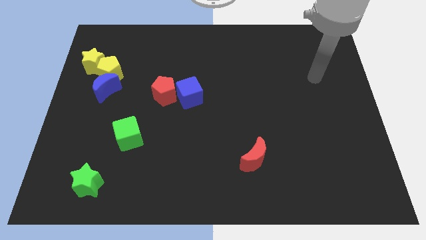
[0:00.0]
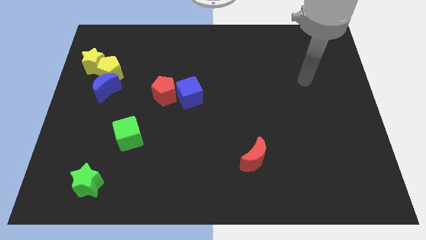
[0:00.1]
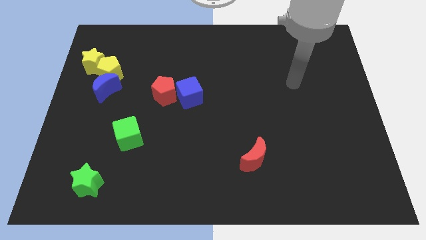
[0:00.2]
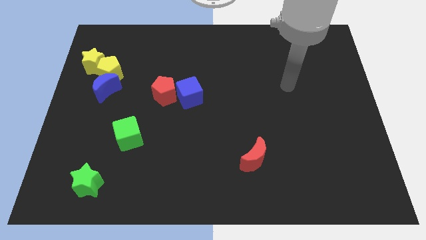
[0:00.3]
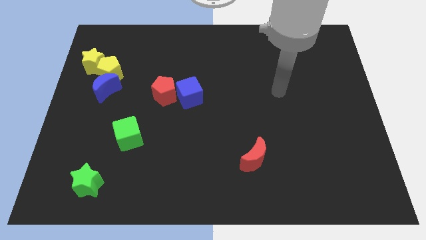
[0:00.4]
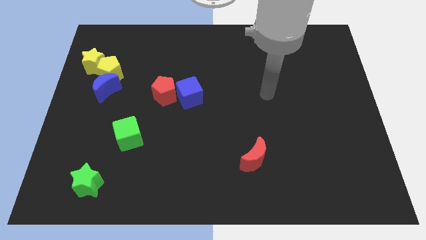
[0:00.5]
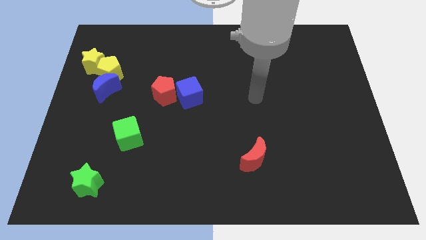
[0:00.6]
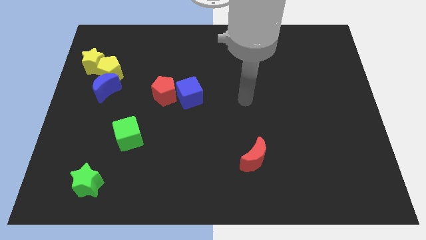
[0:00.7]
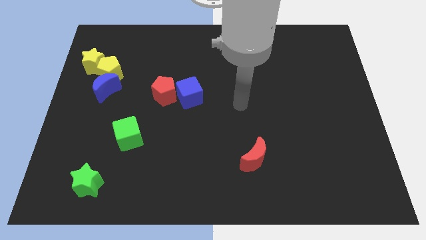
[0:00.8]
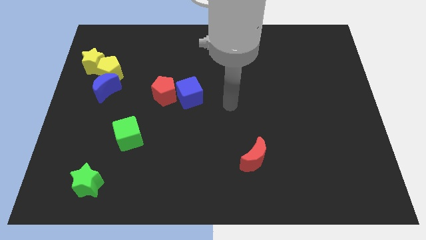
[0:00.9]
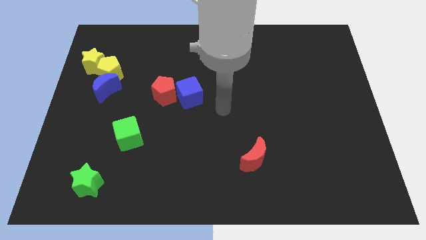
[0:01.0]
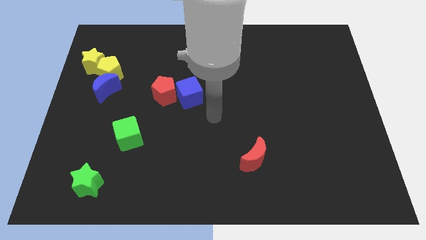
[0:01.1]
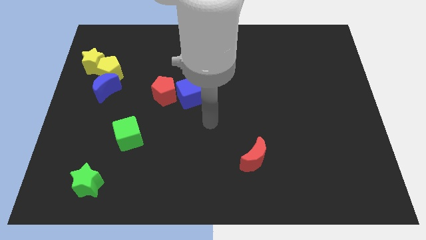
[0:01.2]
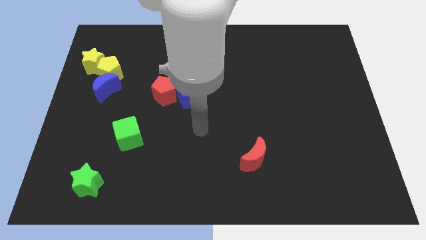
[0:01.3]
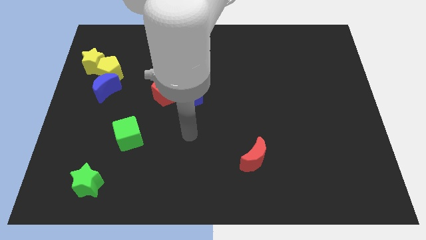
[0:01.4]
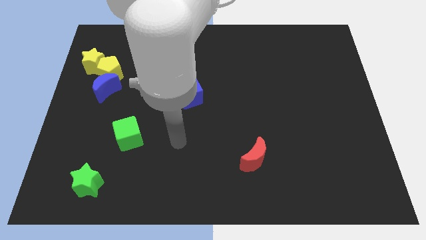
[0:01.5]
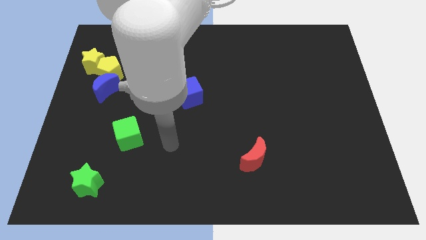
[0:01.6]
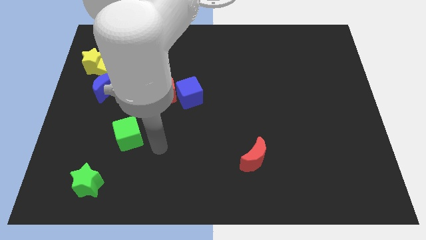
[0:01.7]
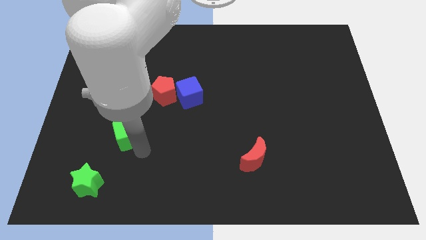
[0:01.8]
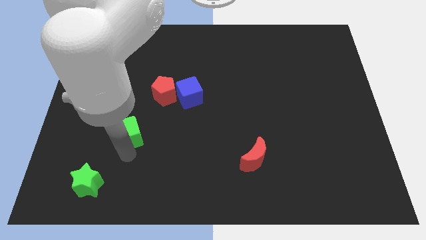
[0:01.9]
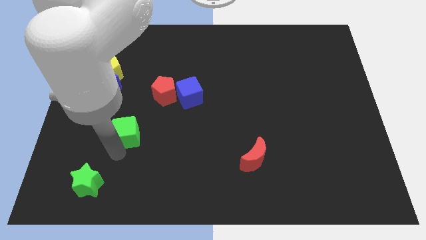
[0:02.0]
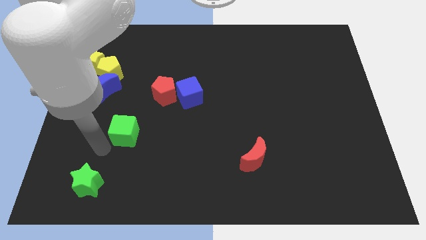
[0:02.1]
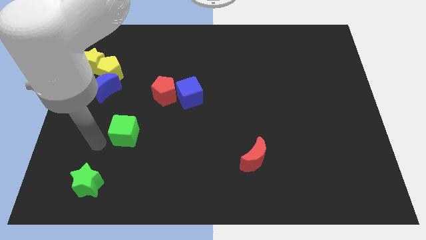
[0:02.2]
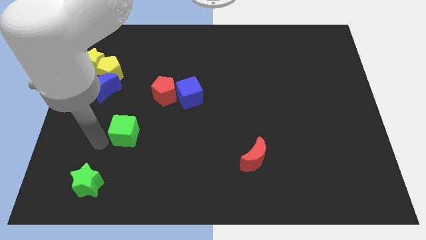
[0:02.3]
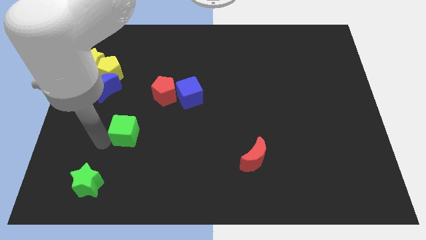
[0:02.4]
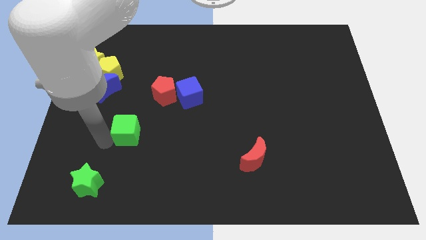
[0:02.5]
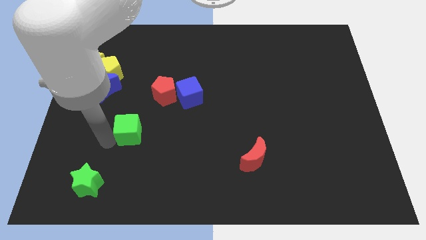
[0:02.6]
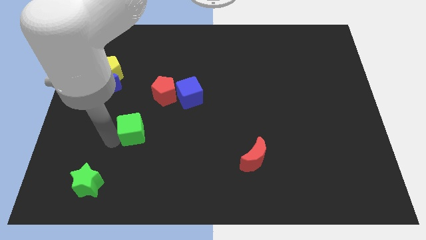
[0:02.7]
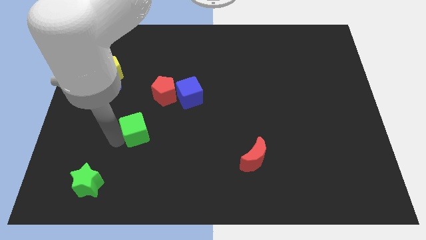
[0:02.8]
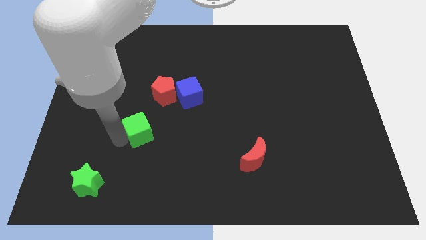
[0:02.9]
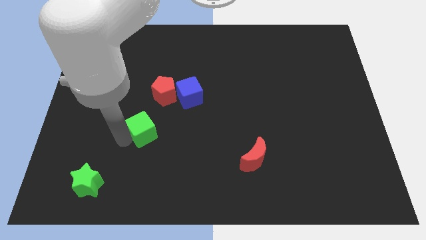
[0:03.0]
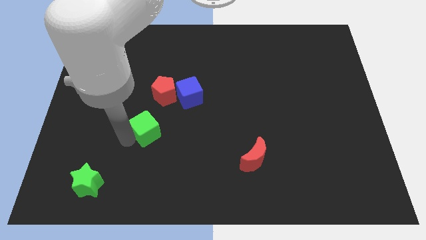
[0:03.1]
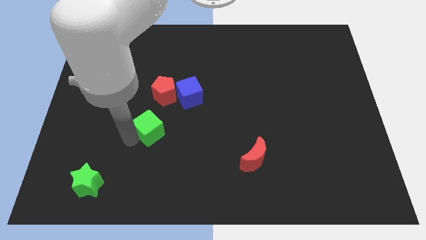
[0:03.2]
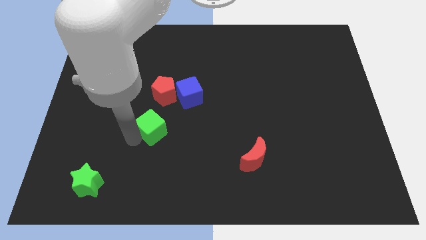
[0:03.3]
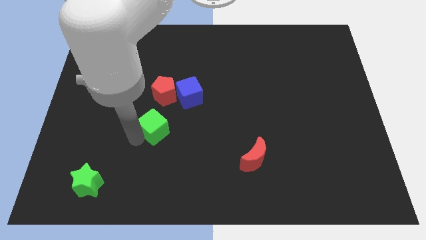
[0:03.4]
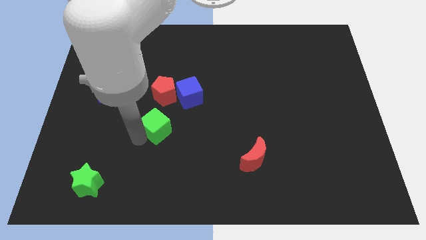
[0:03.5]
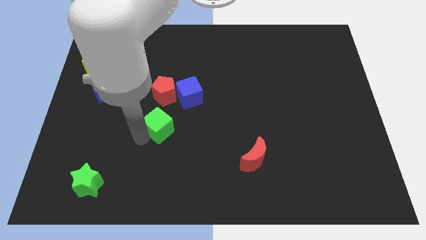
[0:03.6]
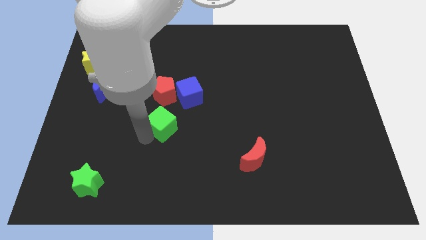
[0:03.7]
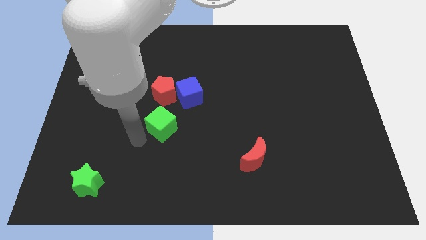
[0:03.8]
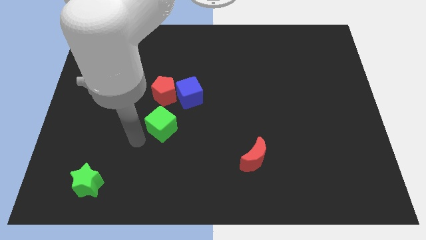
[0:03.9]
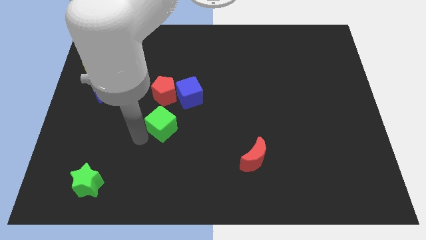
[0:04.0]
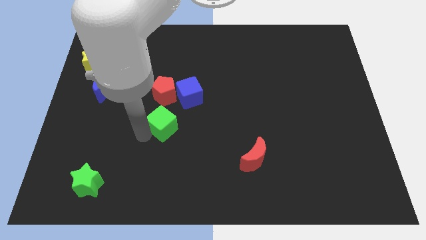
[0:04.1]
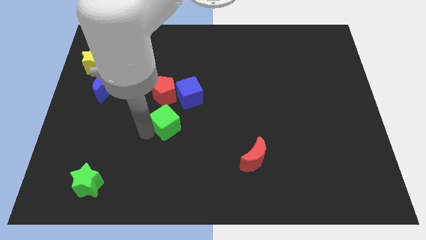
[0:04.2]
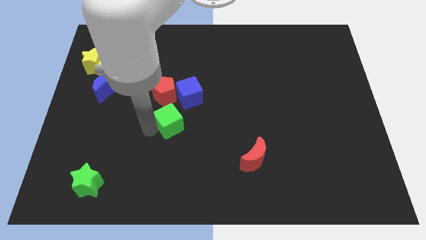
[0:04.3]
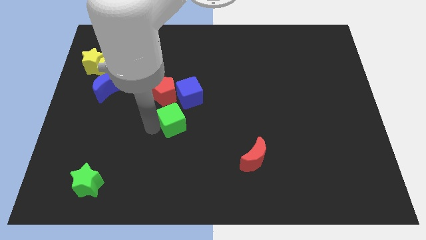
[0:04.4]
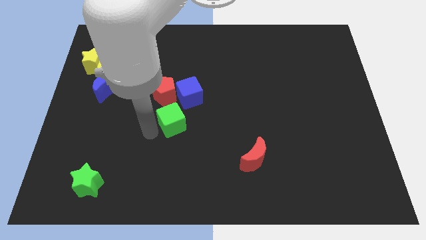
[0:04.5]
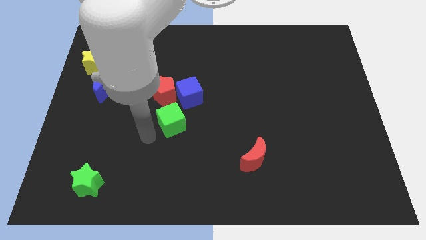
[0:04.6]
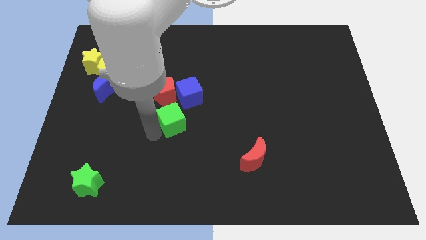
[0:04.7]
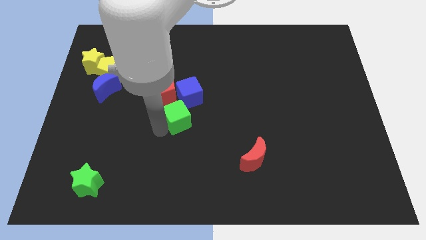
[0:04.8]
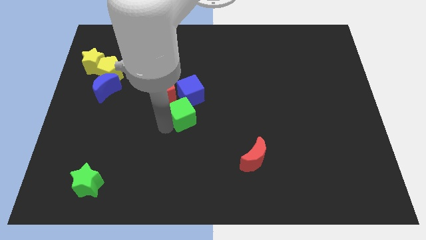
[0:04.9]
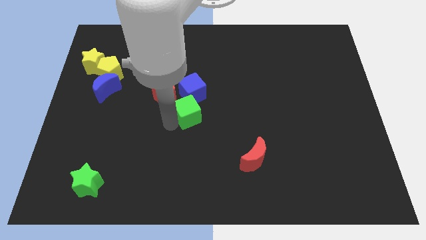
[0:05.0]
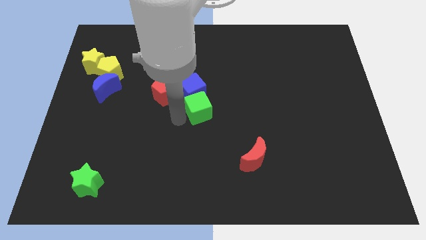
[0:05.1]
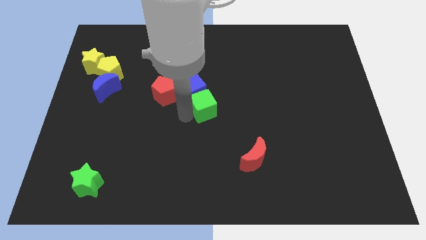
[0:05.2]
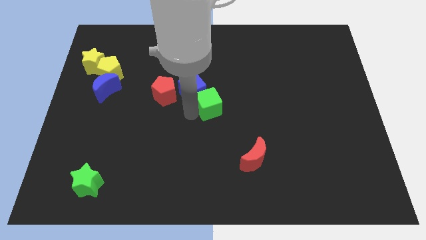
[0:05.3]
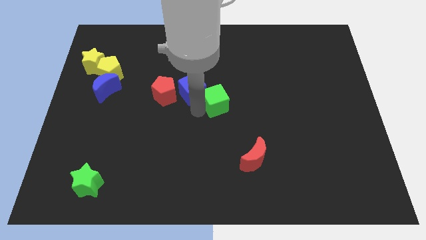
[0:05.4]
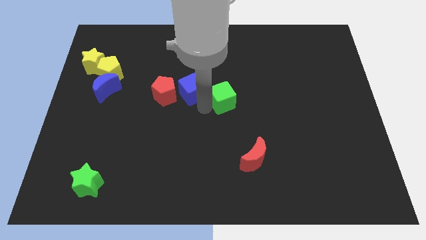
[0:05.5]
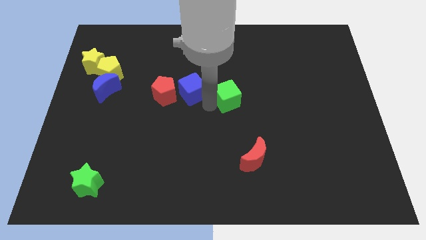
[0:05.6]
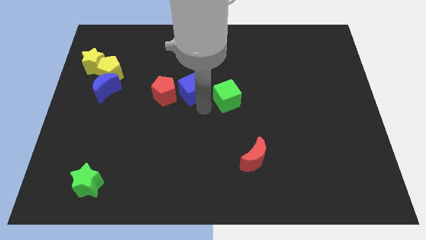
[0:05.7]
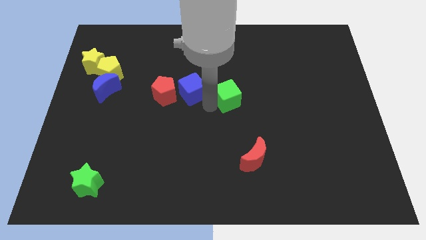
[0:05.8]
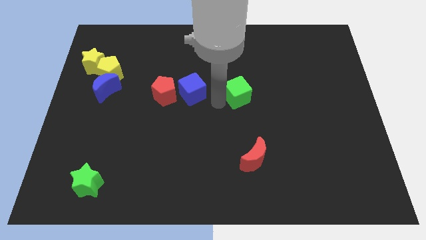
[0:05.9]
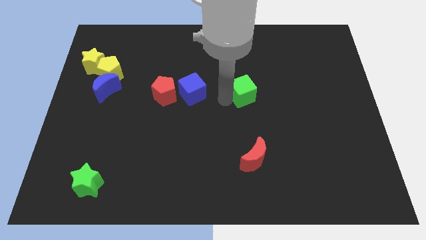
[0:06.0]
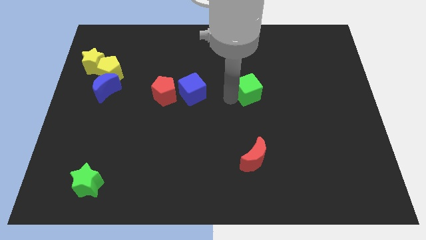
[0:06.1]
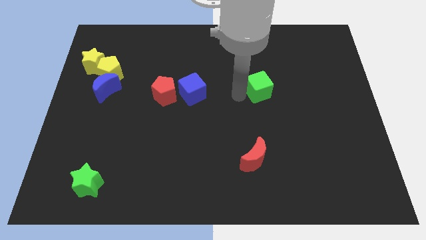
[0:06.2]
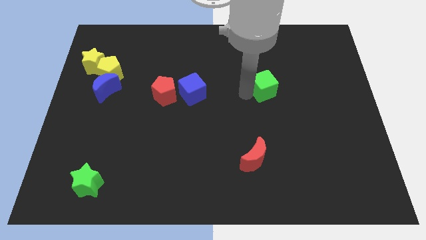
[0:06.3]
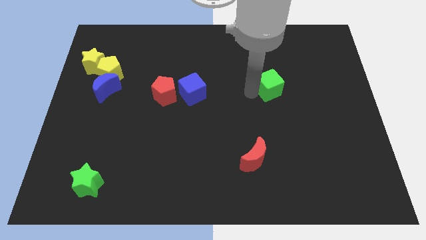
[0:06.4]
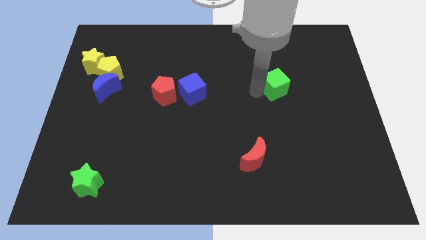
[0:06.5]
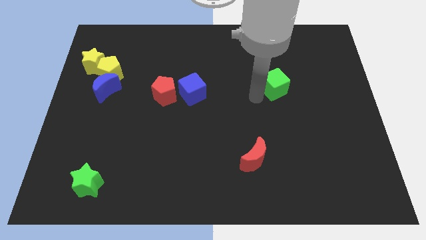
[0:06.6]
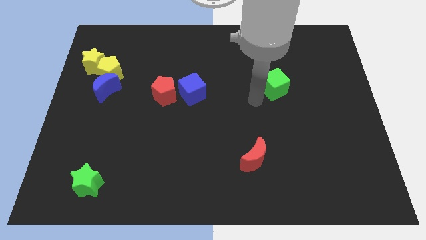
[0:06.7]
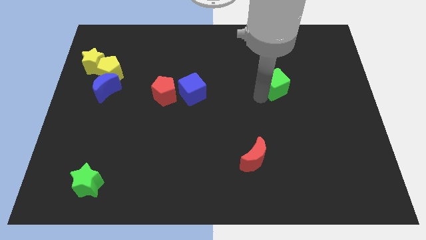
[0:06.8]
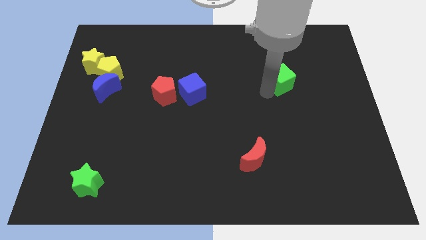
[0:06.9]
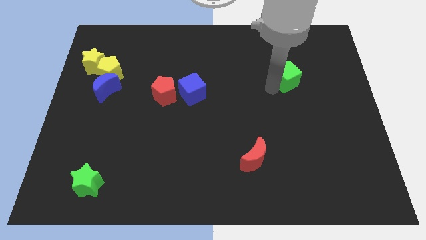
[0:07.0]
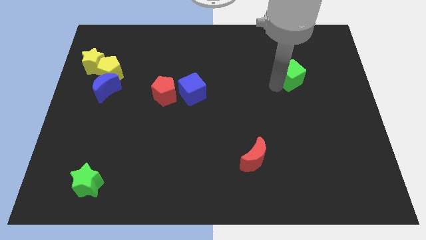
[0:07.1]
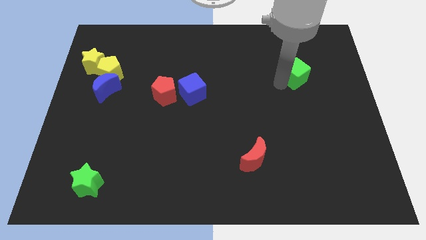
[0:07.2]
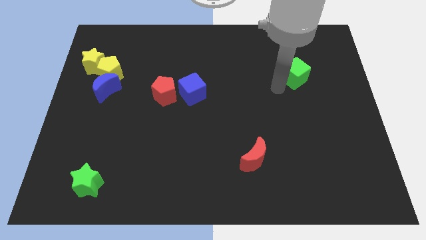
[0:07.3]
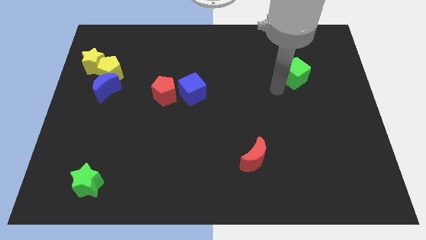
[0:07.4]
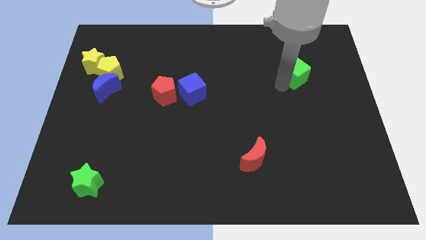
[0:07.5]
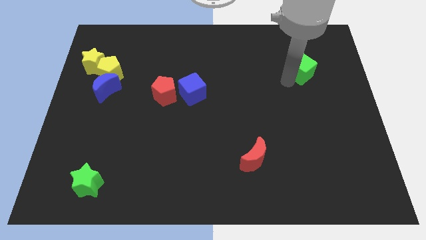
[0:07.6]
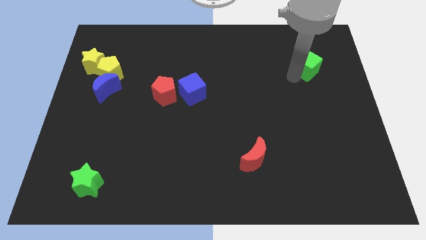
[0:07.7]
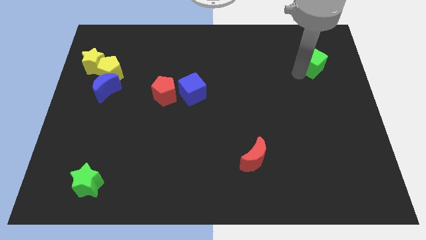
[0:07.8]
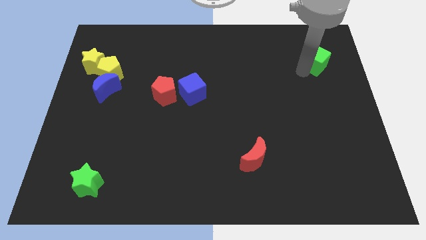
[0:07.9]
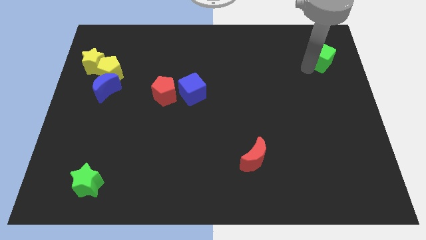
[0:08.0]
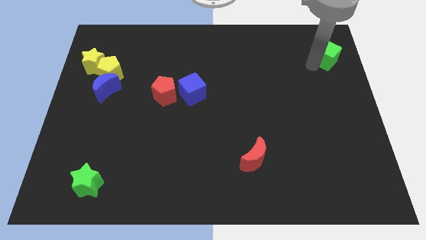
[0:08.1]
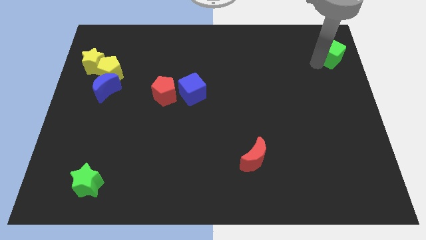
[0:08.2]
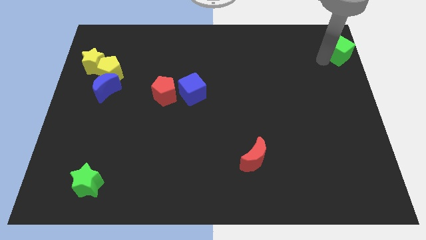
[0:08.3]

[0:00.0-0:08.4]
move the green cube to the upper right corner
